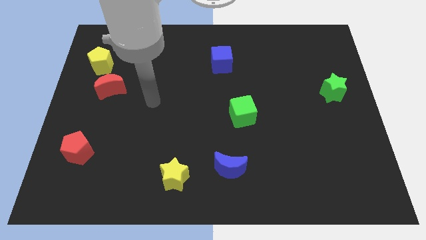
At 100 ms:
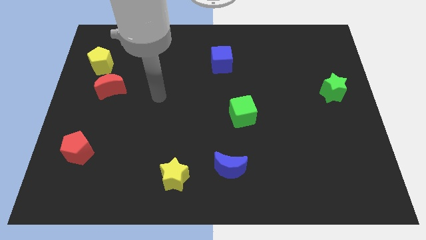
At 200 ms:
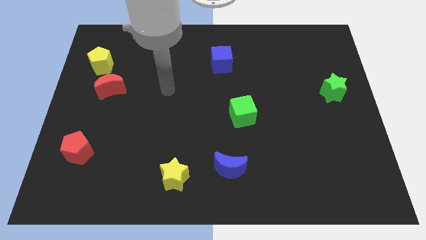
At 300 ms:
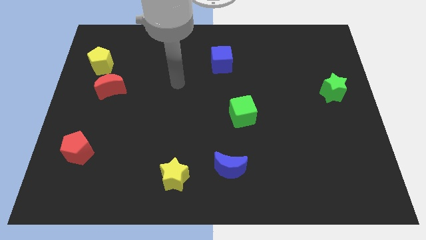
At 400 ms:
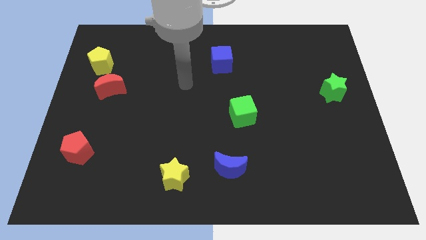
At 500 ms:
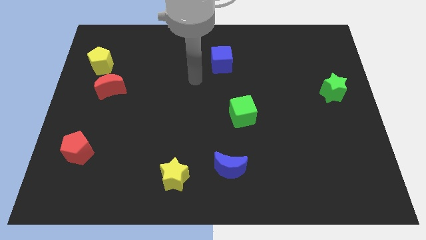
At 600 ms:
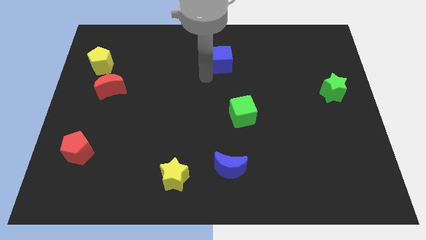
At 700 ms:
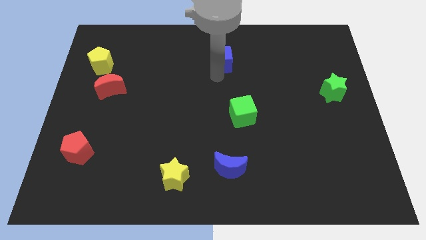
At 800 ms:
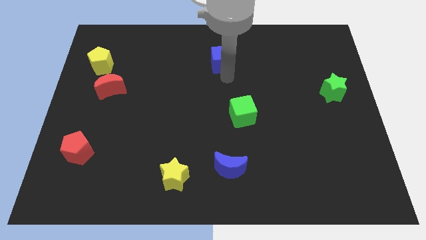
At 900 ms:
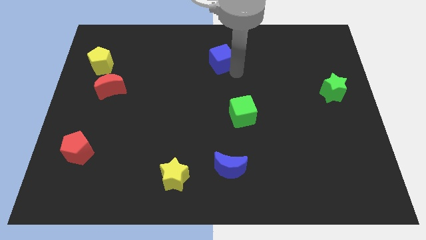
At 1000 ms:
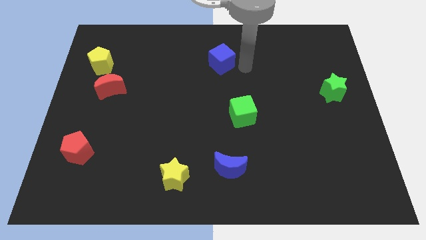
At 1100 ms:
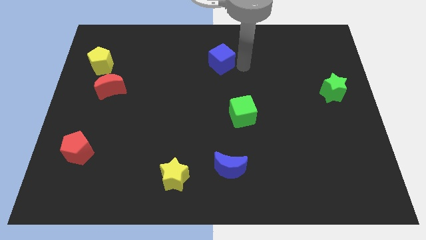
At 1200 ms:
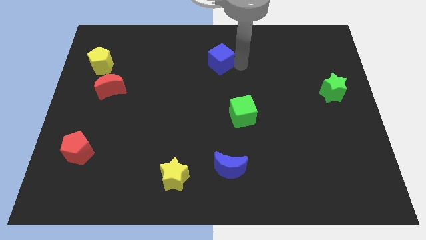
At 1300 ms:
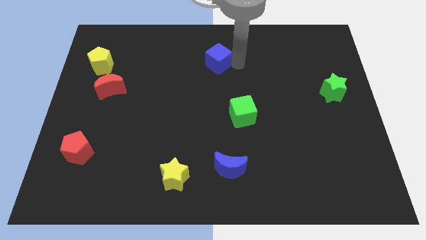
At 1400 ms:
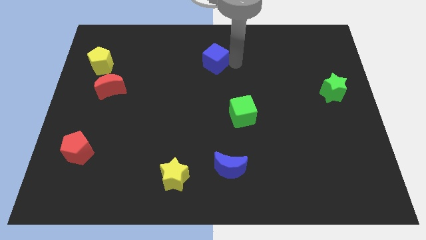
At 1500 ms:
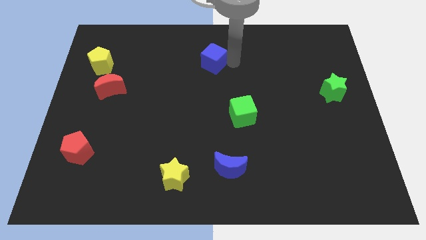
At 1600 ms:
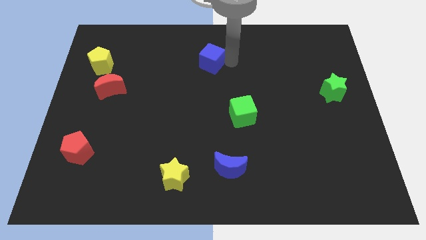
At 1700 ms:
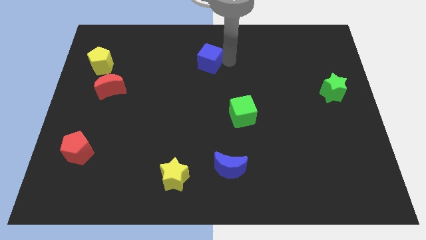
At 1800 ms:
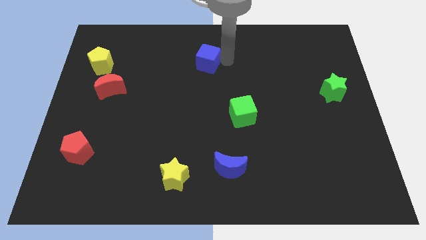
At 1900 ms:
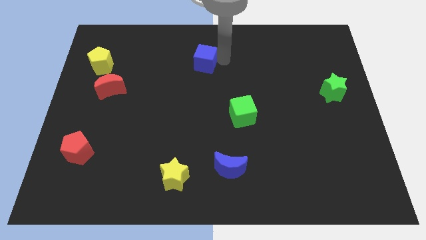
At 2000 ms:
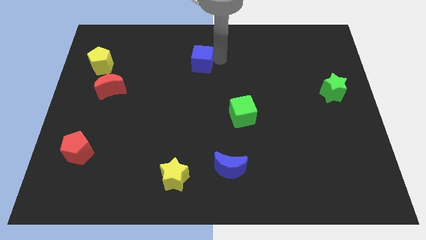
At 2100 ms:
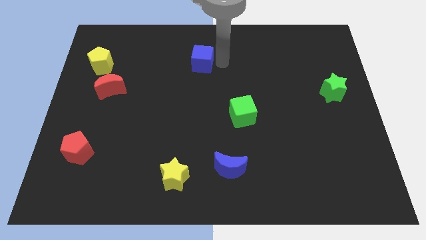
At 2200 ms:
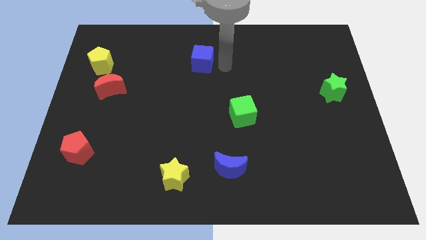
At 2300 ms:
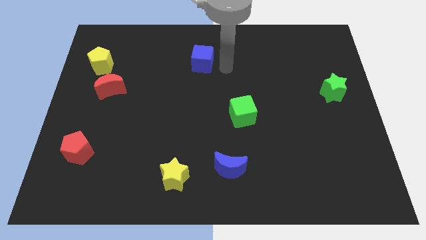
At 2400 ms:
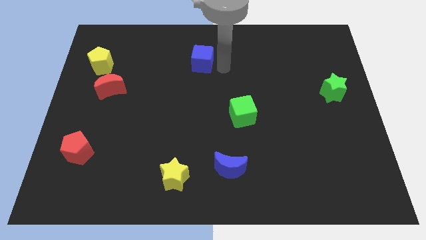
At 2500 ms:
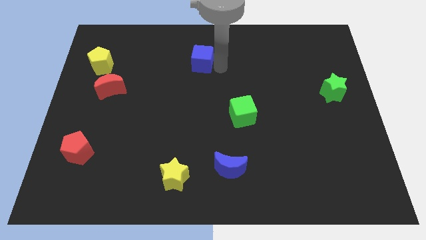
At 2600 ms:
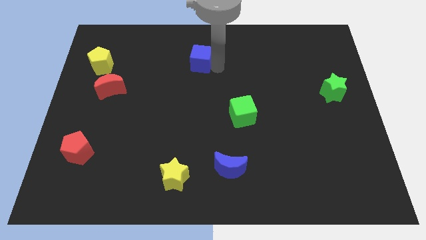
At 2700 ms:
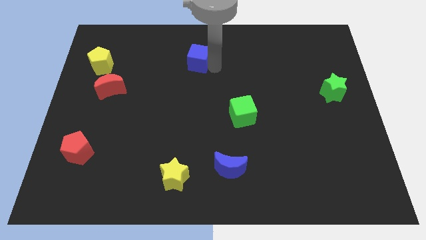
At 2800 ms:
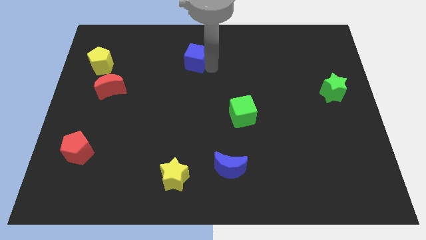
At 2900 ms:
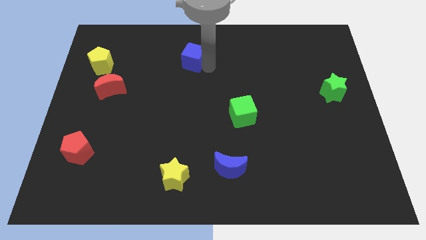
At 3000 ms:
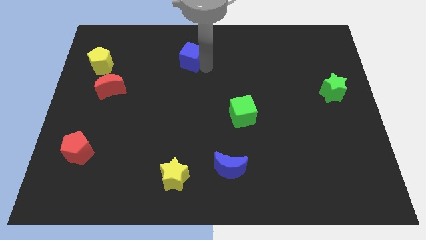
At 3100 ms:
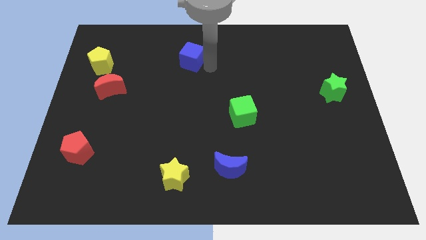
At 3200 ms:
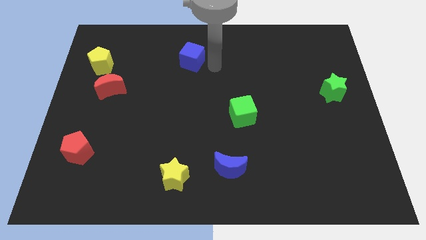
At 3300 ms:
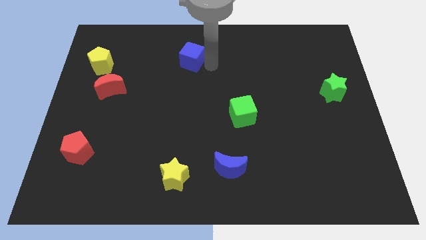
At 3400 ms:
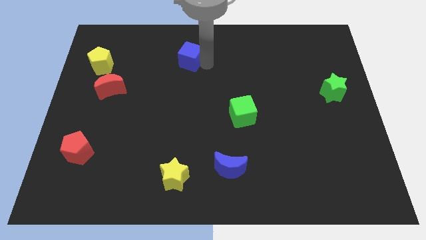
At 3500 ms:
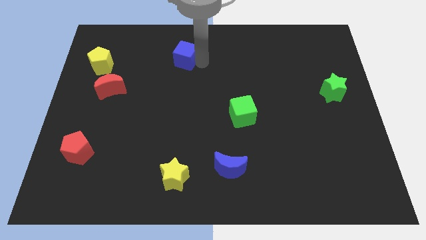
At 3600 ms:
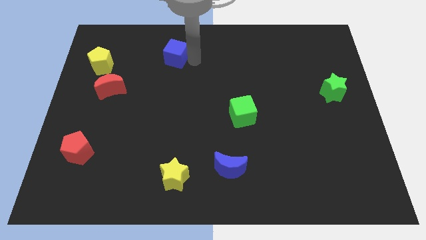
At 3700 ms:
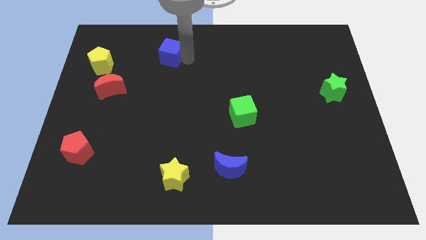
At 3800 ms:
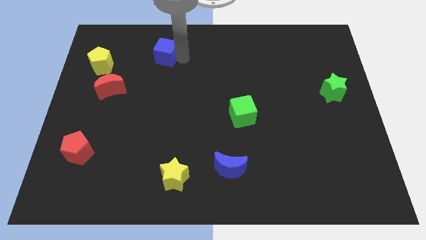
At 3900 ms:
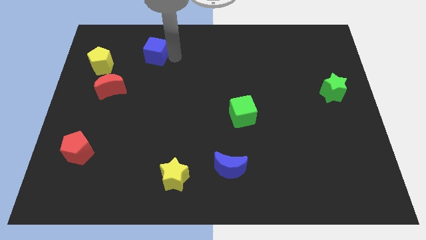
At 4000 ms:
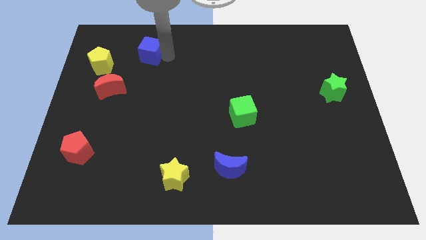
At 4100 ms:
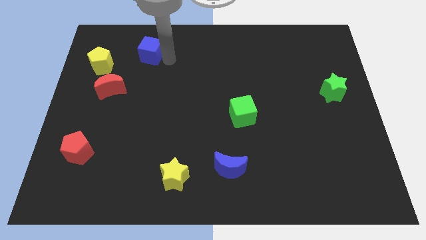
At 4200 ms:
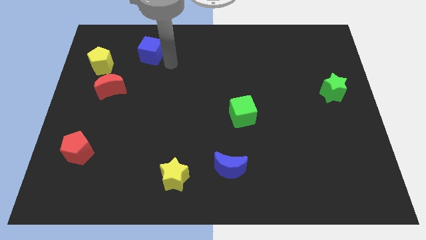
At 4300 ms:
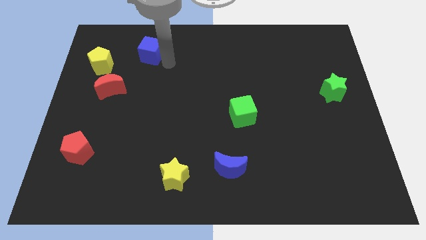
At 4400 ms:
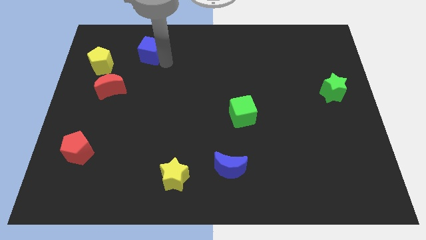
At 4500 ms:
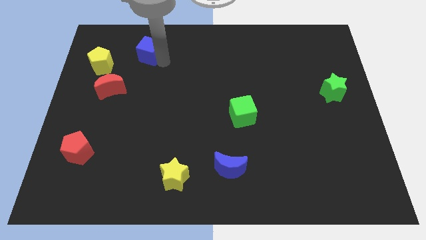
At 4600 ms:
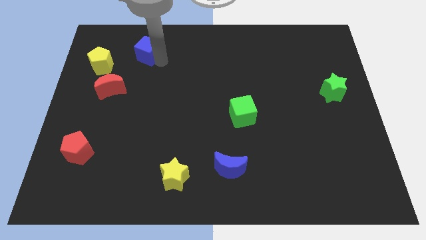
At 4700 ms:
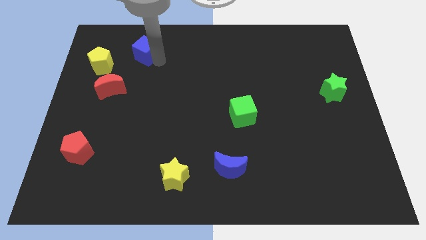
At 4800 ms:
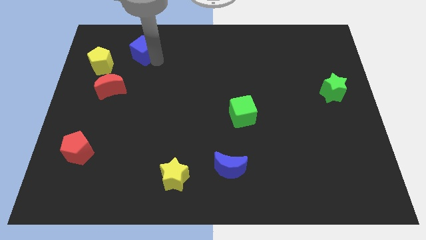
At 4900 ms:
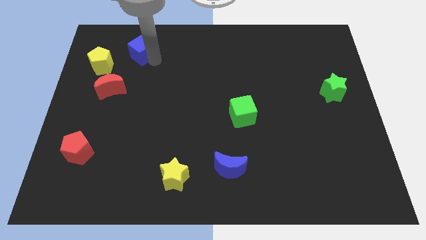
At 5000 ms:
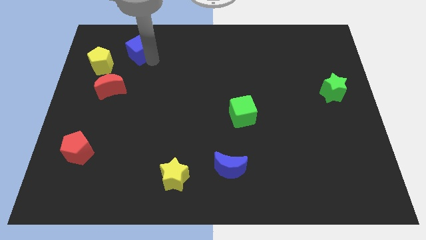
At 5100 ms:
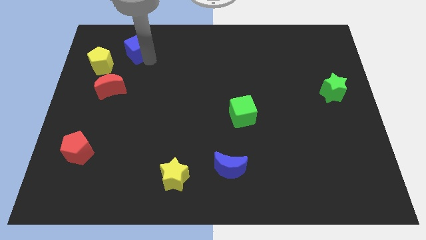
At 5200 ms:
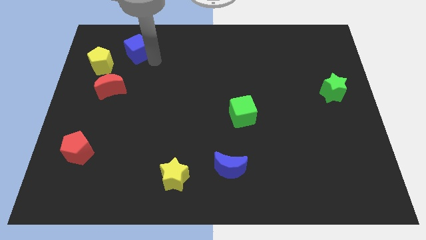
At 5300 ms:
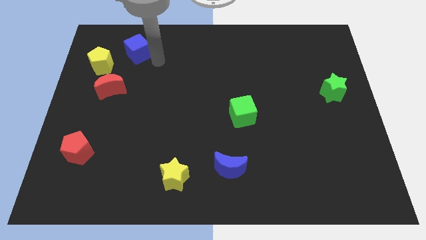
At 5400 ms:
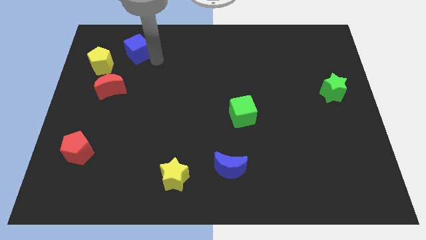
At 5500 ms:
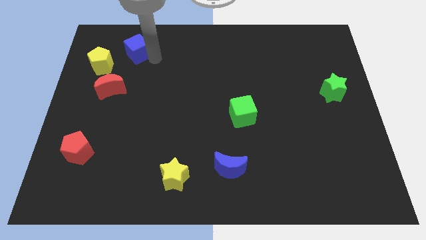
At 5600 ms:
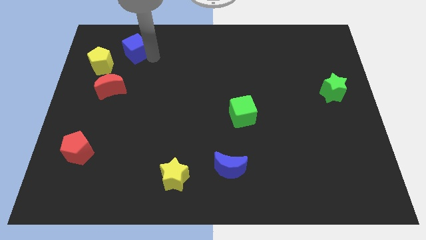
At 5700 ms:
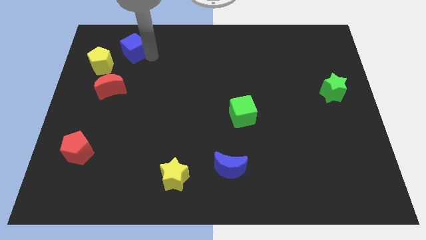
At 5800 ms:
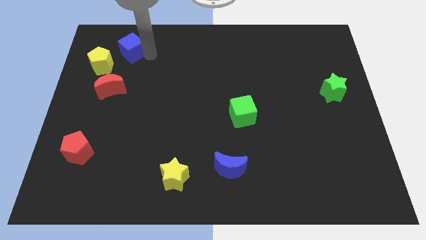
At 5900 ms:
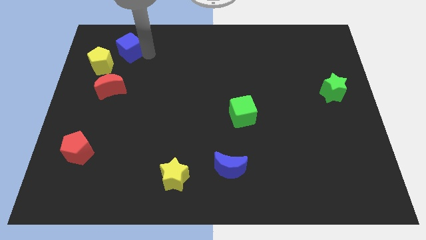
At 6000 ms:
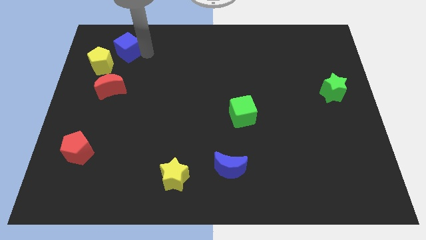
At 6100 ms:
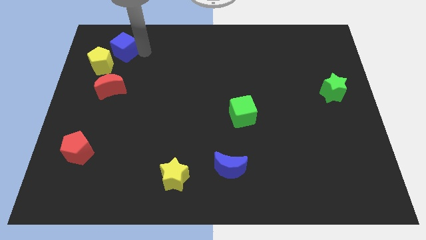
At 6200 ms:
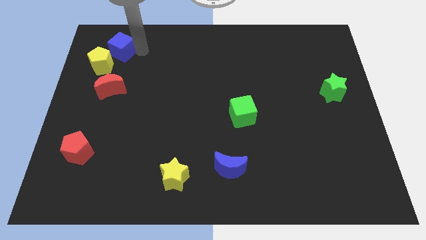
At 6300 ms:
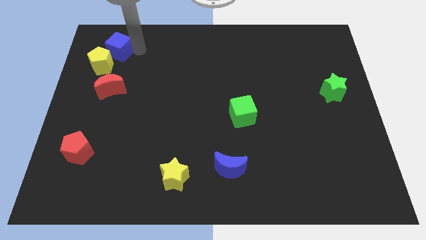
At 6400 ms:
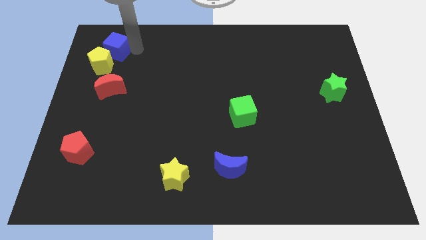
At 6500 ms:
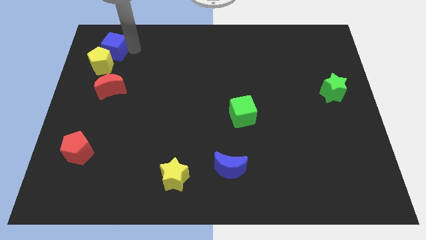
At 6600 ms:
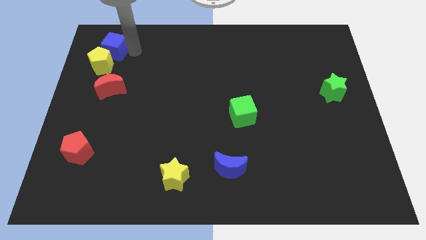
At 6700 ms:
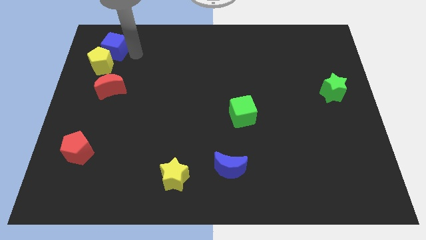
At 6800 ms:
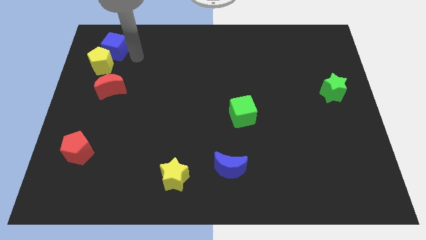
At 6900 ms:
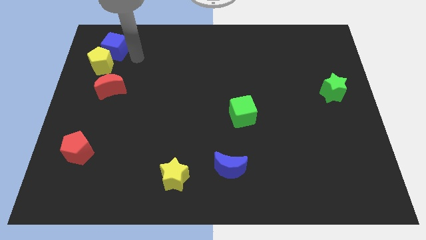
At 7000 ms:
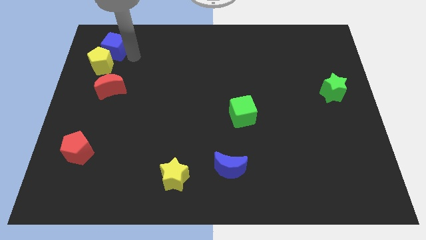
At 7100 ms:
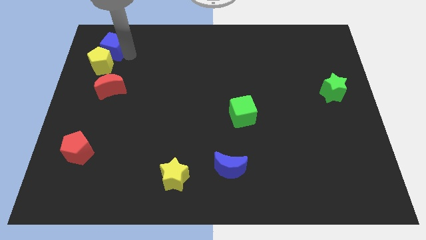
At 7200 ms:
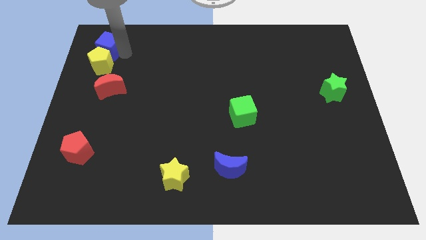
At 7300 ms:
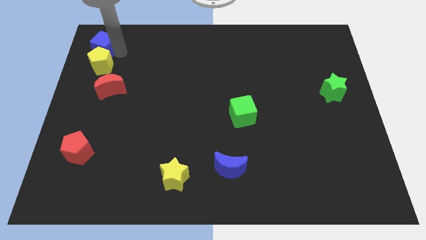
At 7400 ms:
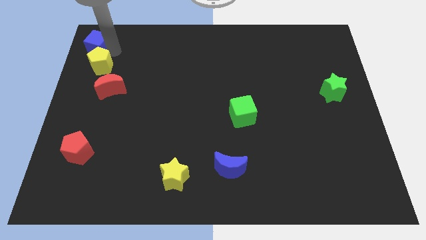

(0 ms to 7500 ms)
move the blue cube to the top left
